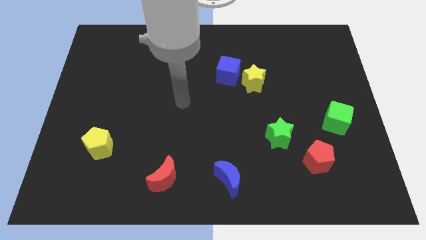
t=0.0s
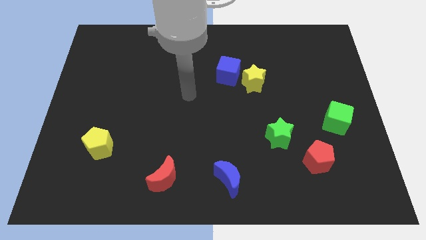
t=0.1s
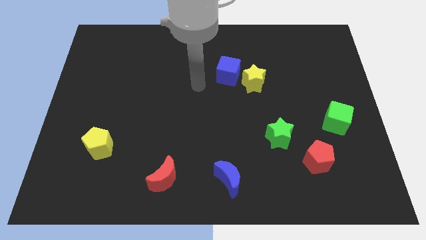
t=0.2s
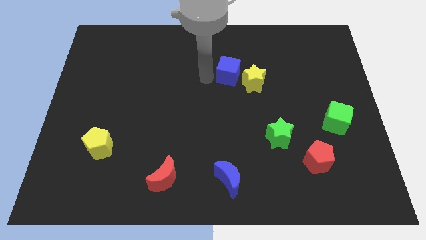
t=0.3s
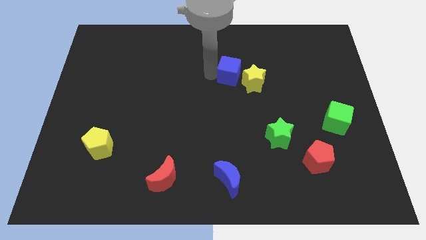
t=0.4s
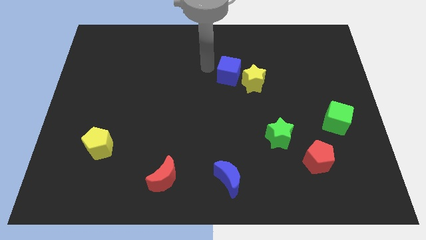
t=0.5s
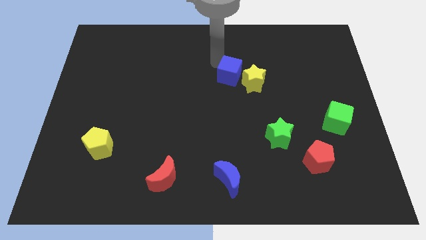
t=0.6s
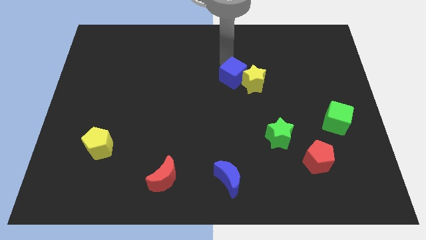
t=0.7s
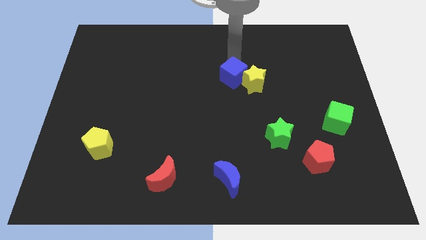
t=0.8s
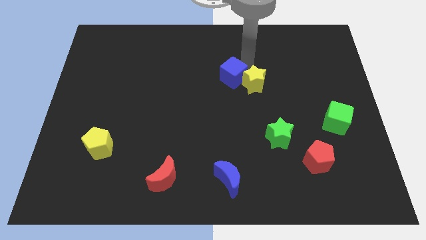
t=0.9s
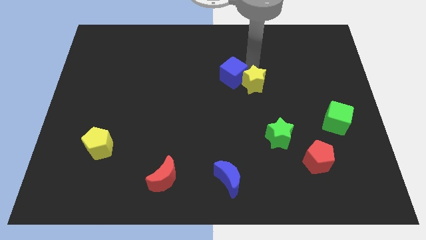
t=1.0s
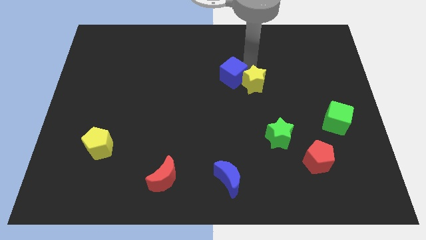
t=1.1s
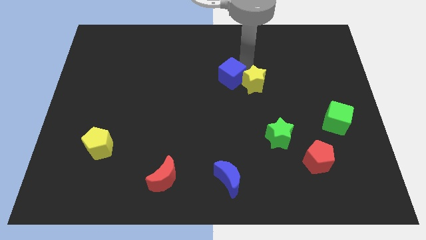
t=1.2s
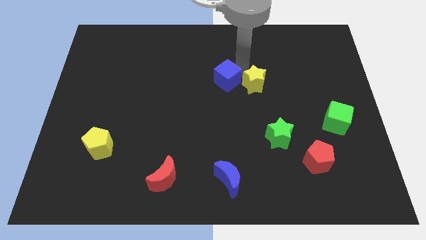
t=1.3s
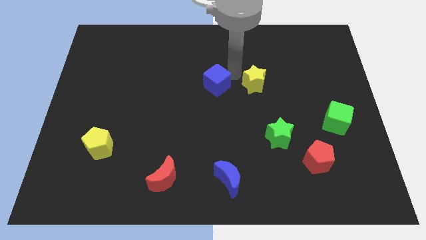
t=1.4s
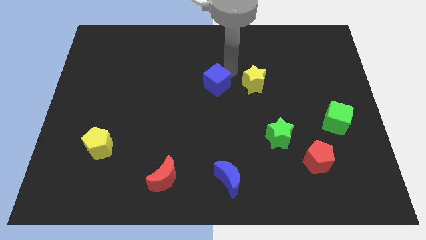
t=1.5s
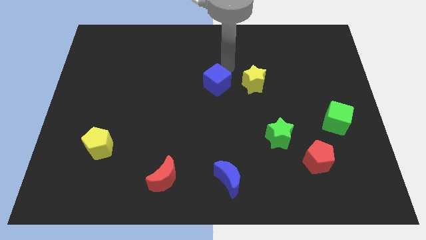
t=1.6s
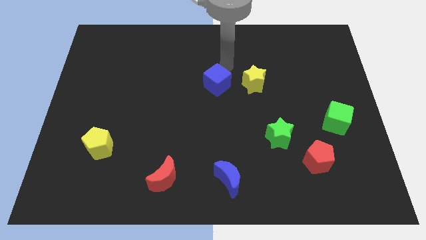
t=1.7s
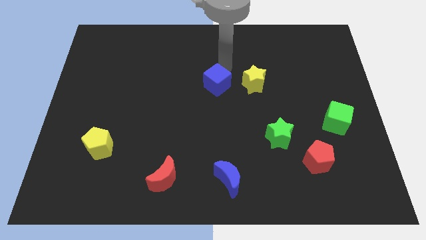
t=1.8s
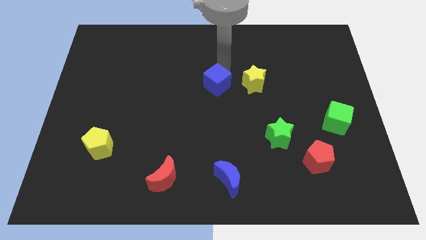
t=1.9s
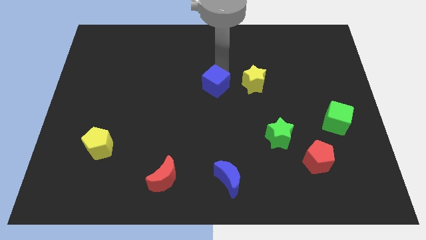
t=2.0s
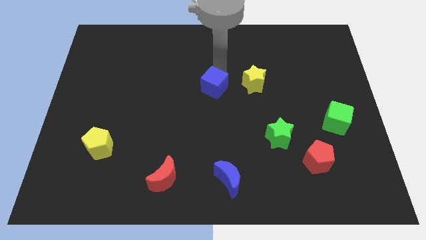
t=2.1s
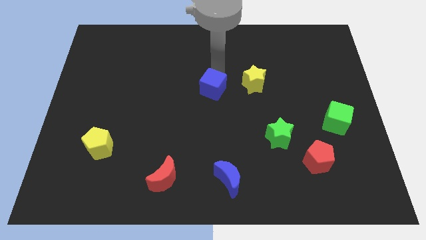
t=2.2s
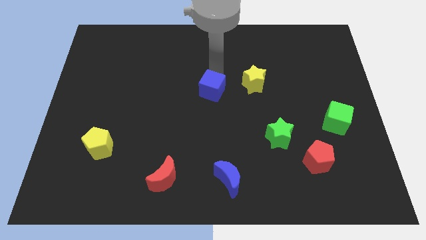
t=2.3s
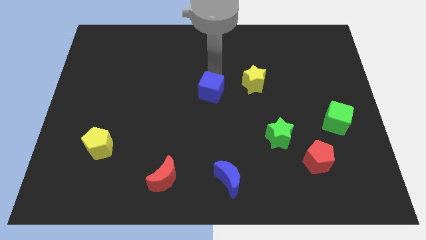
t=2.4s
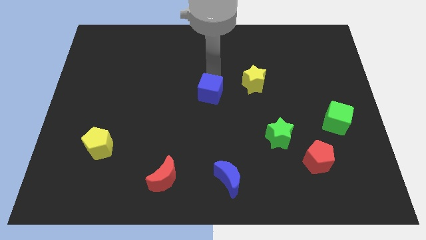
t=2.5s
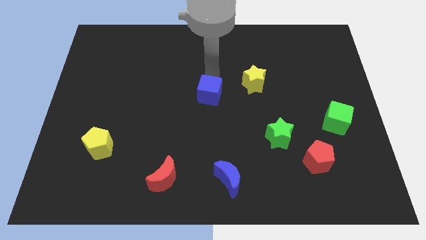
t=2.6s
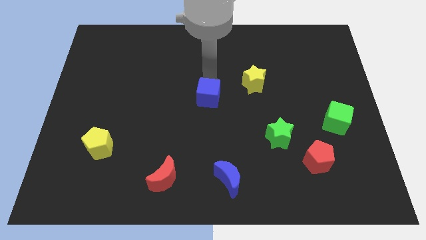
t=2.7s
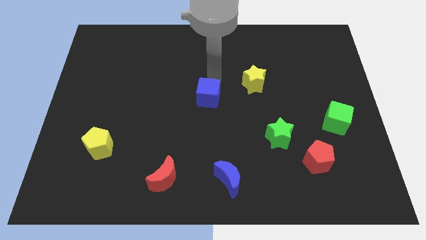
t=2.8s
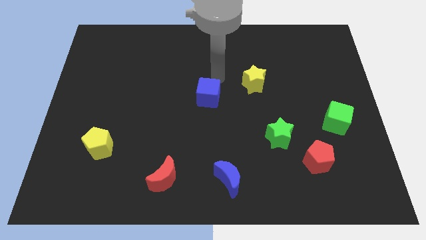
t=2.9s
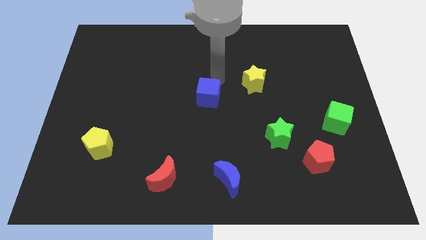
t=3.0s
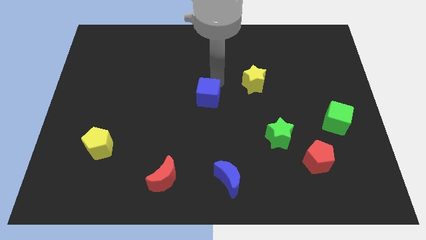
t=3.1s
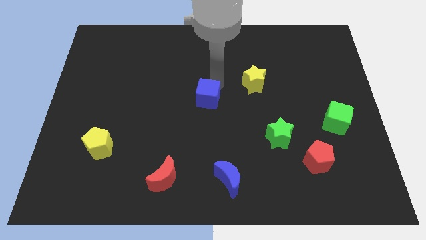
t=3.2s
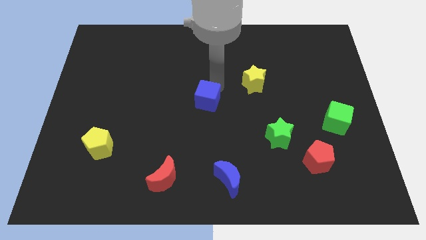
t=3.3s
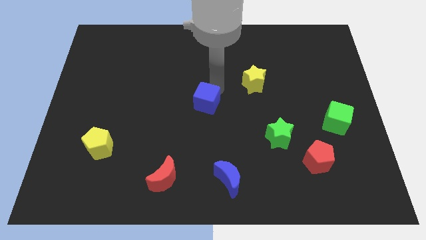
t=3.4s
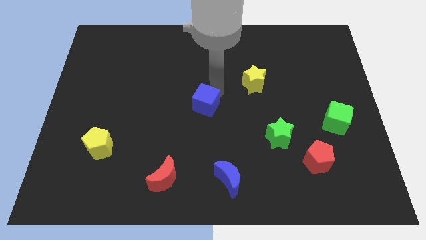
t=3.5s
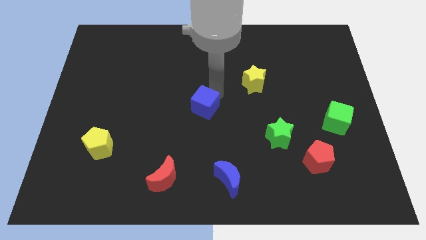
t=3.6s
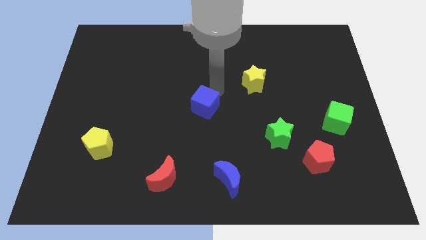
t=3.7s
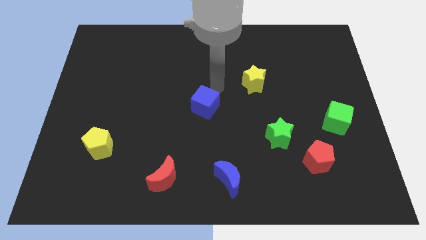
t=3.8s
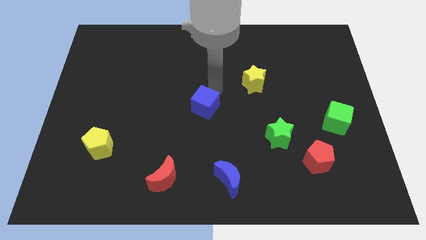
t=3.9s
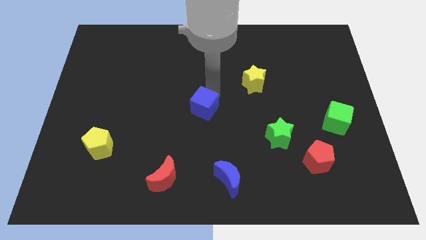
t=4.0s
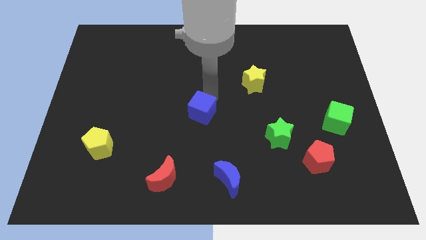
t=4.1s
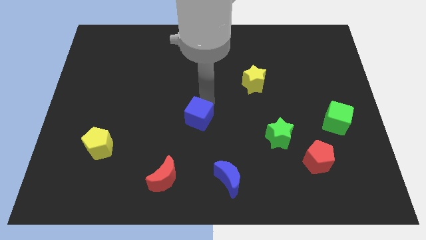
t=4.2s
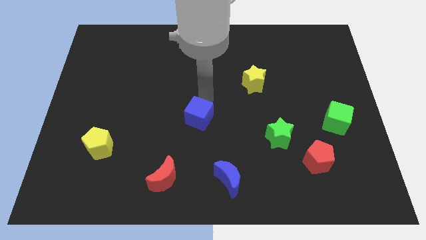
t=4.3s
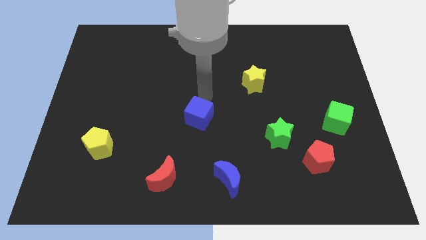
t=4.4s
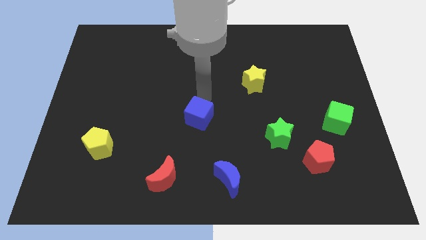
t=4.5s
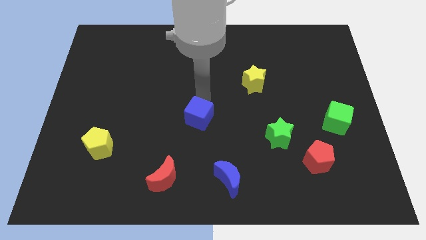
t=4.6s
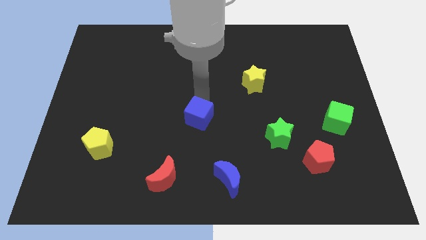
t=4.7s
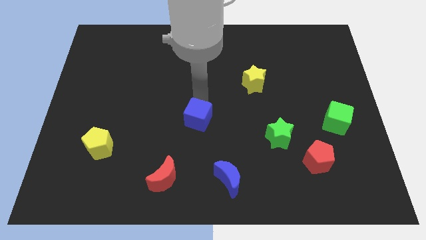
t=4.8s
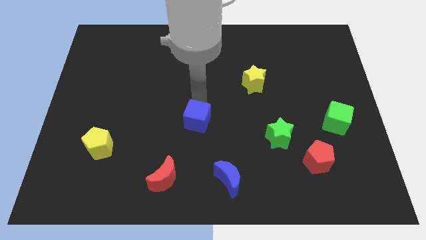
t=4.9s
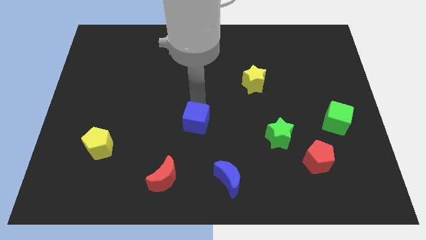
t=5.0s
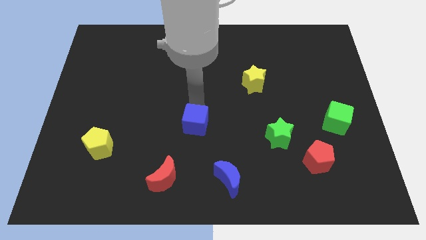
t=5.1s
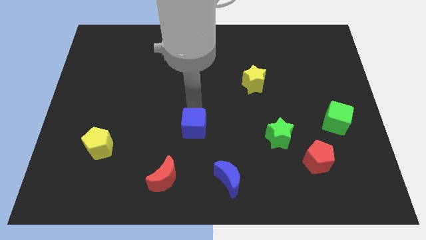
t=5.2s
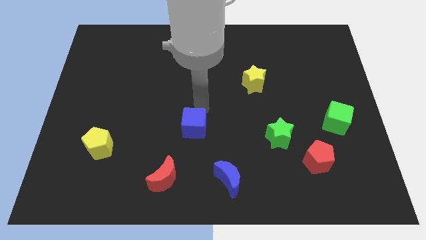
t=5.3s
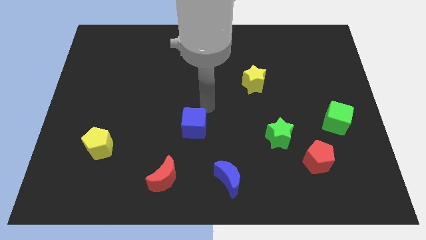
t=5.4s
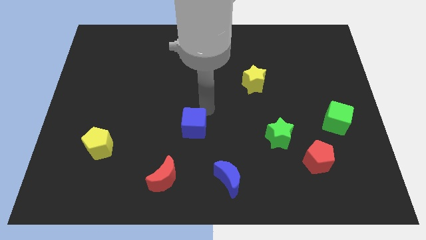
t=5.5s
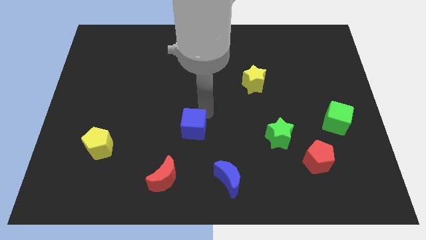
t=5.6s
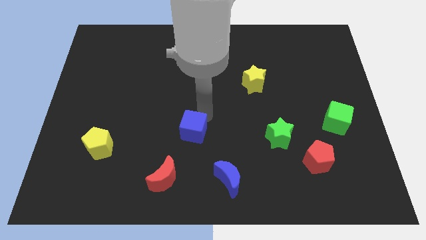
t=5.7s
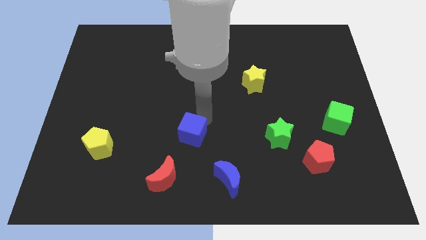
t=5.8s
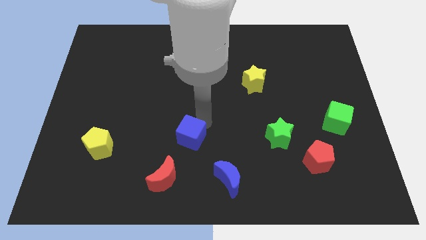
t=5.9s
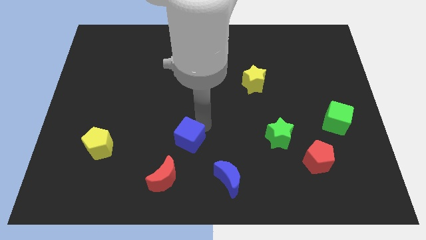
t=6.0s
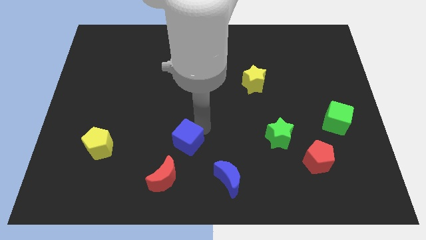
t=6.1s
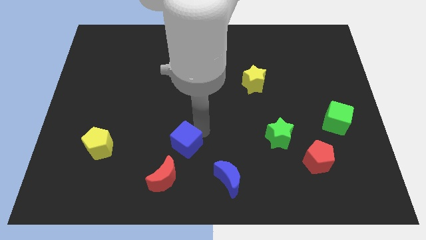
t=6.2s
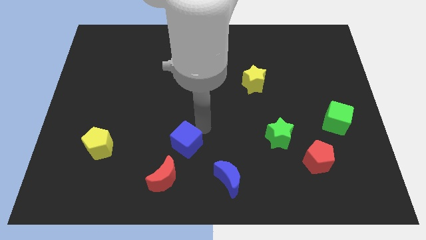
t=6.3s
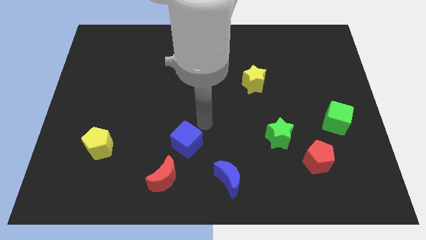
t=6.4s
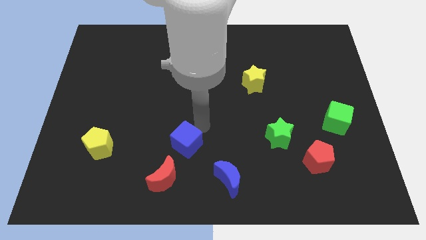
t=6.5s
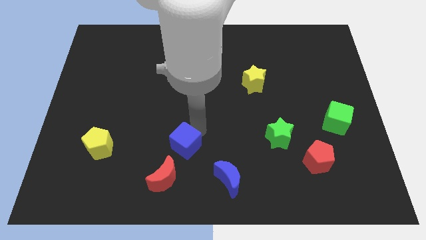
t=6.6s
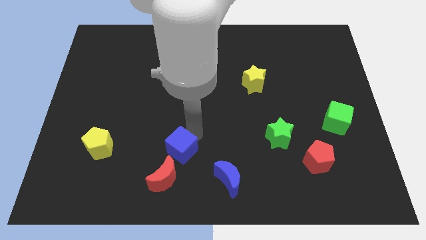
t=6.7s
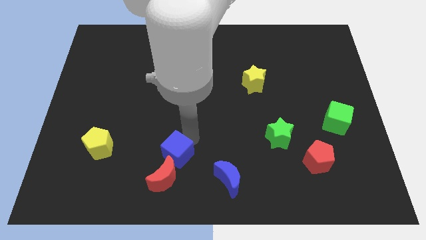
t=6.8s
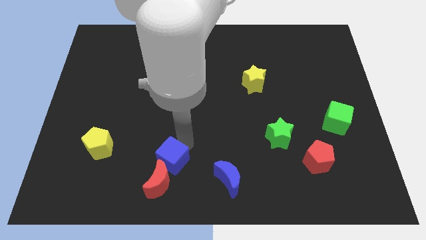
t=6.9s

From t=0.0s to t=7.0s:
put the blue cube next to the red moon
